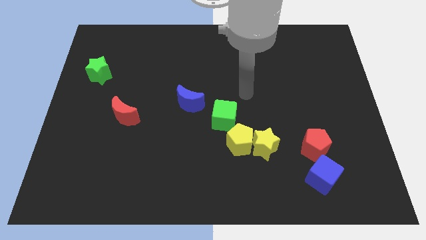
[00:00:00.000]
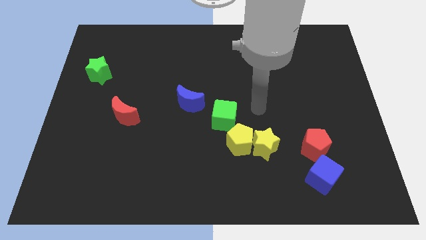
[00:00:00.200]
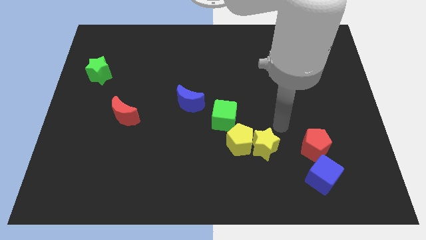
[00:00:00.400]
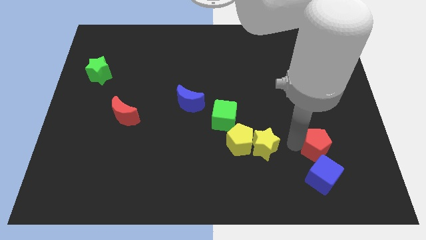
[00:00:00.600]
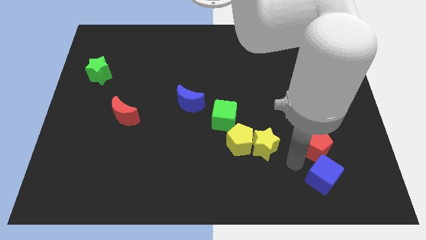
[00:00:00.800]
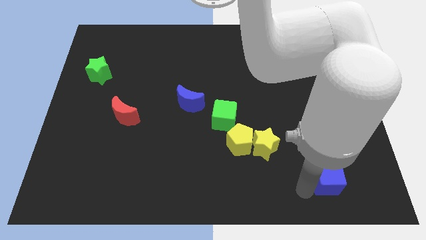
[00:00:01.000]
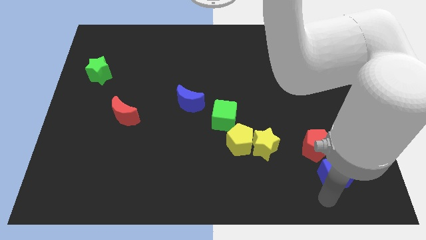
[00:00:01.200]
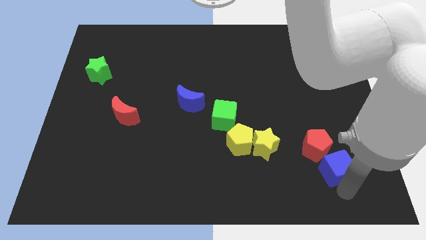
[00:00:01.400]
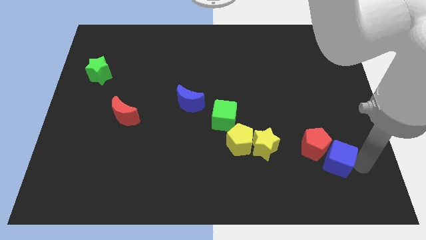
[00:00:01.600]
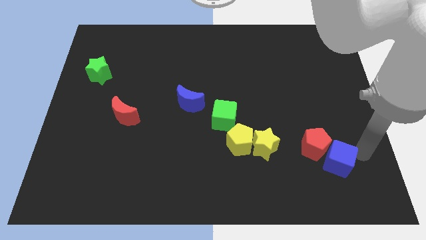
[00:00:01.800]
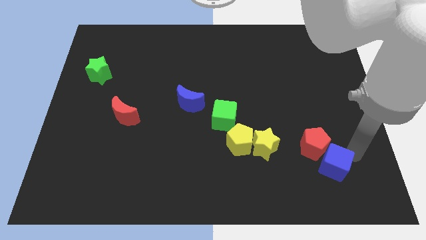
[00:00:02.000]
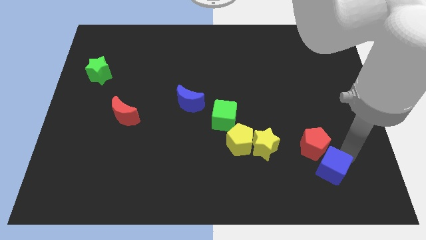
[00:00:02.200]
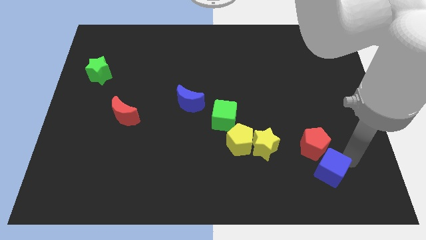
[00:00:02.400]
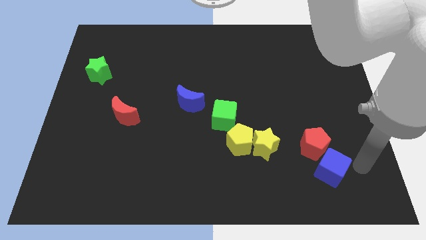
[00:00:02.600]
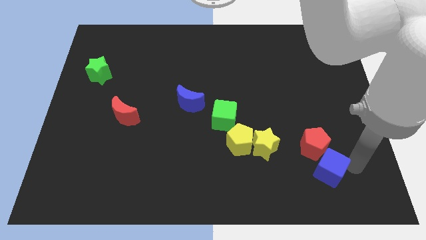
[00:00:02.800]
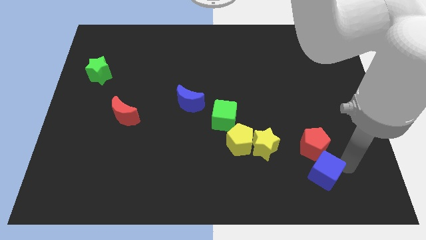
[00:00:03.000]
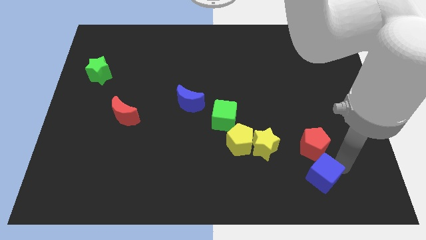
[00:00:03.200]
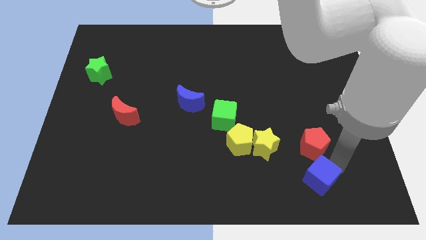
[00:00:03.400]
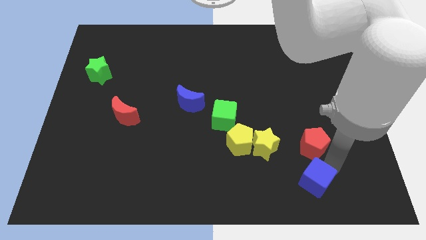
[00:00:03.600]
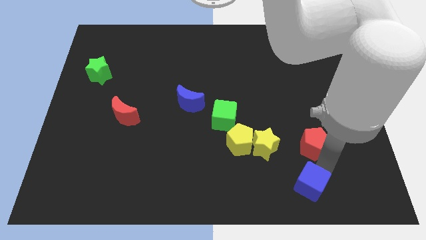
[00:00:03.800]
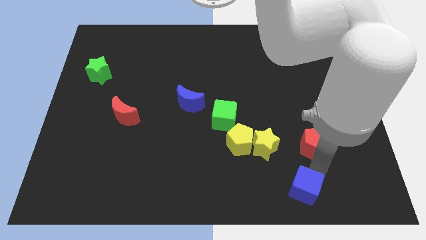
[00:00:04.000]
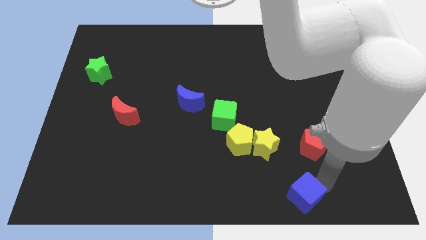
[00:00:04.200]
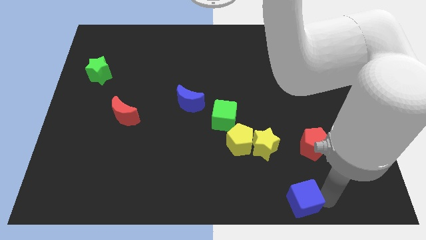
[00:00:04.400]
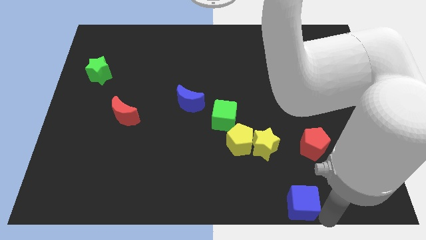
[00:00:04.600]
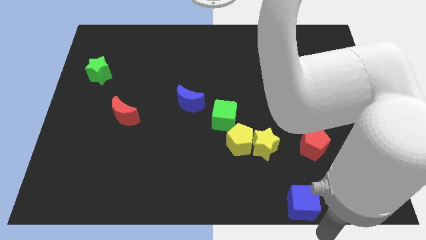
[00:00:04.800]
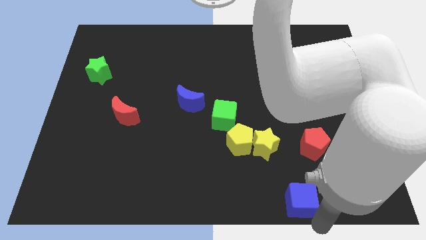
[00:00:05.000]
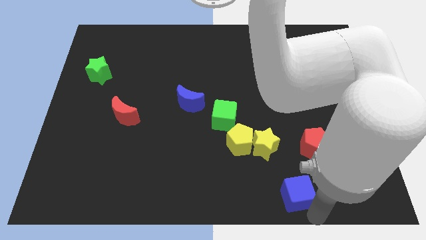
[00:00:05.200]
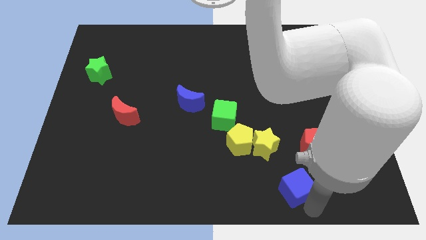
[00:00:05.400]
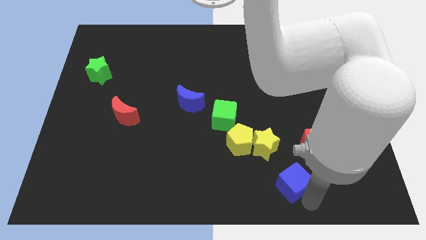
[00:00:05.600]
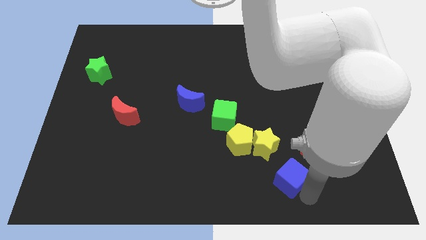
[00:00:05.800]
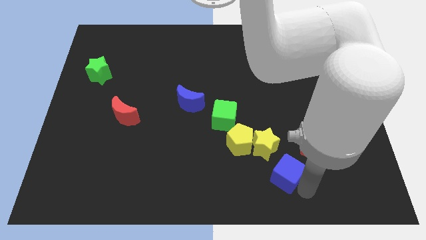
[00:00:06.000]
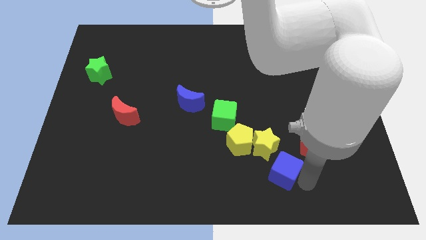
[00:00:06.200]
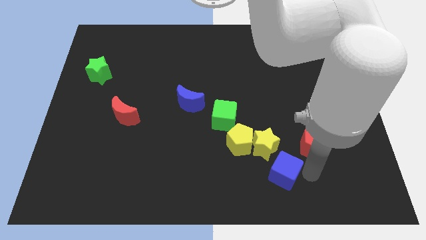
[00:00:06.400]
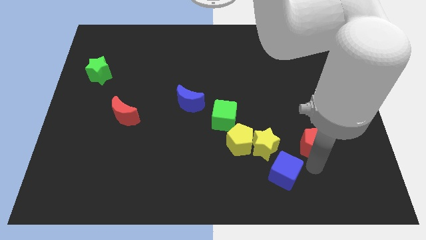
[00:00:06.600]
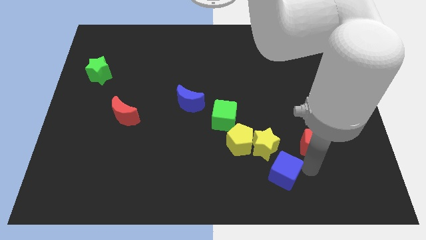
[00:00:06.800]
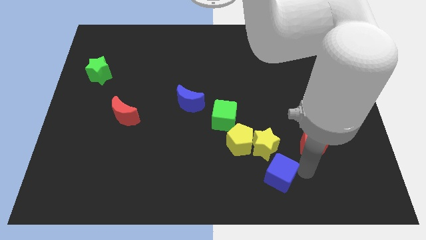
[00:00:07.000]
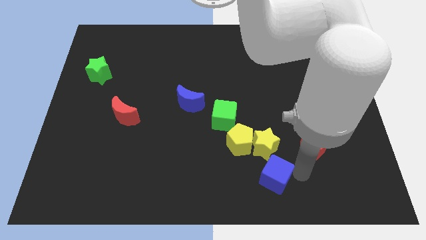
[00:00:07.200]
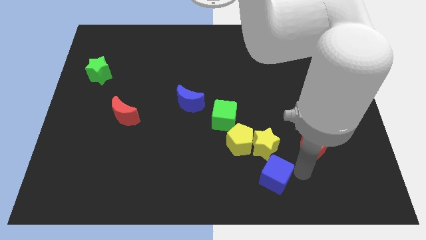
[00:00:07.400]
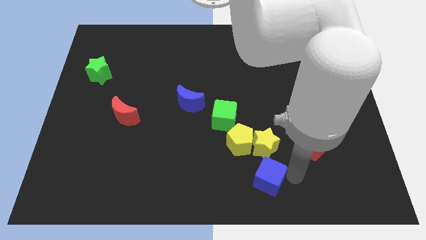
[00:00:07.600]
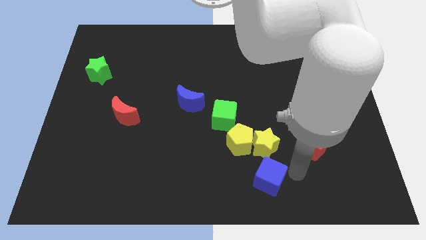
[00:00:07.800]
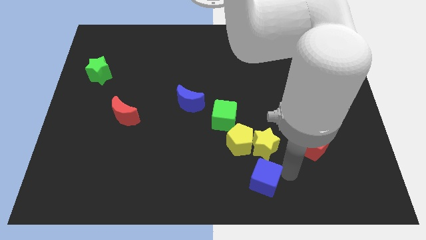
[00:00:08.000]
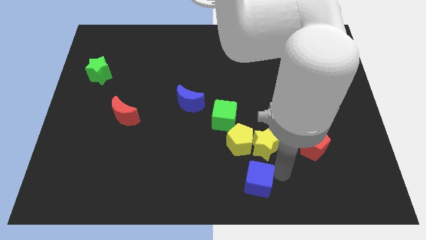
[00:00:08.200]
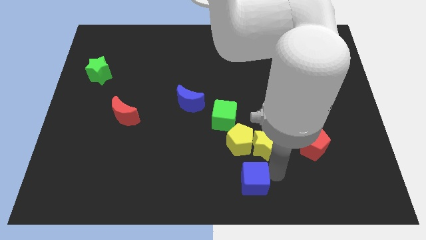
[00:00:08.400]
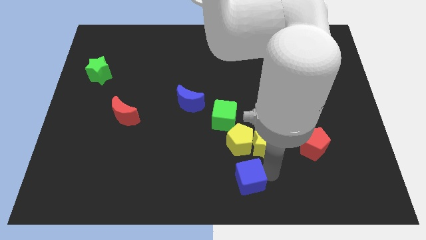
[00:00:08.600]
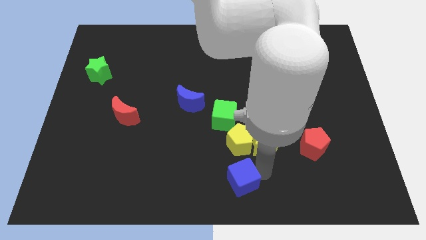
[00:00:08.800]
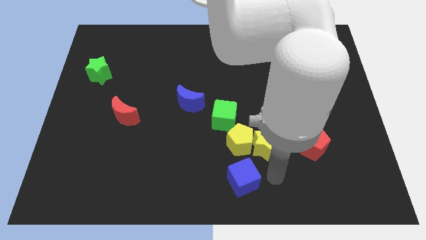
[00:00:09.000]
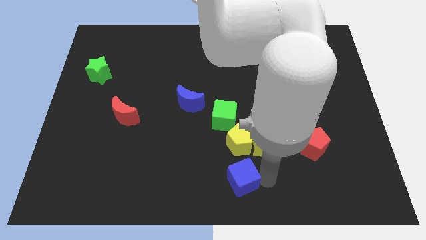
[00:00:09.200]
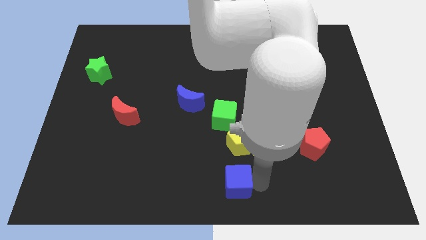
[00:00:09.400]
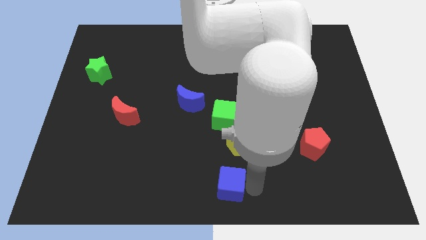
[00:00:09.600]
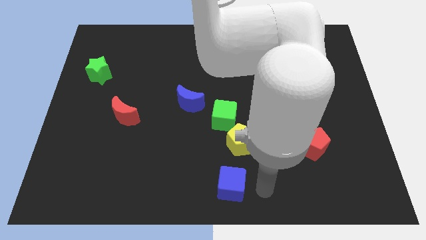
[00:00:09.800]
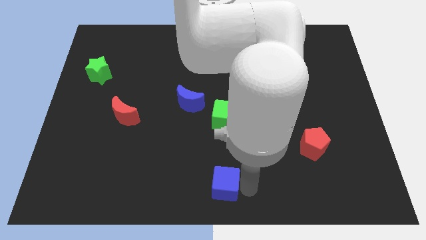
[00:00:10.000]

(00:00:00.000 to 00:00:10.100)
push the blue cube left

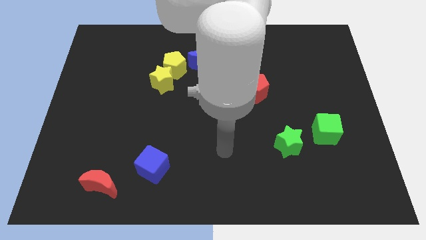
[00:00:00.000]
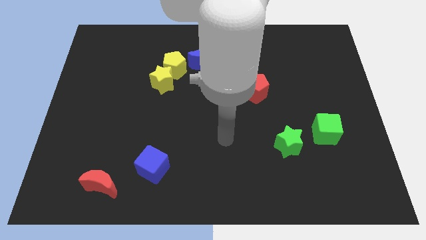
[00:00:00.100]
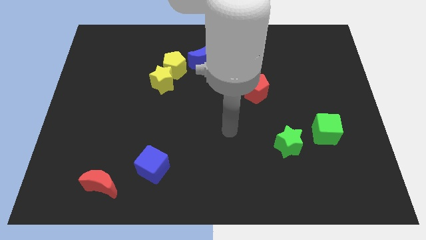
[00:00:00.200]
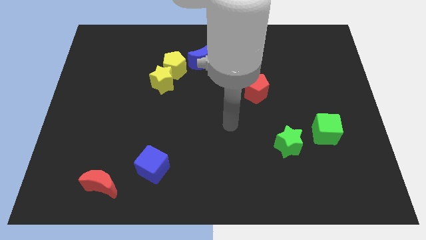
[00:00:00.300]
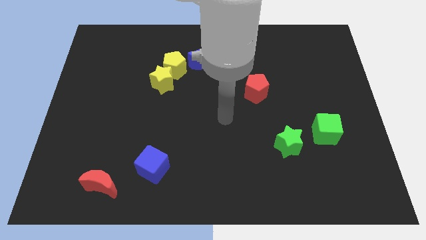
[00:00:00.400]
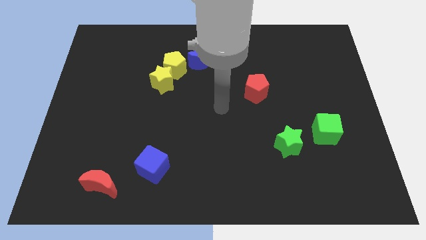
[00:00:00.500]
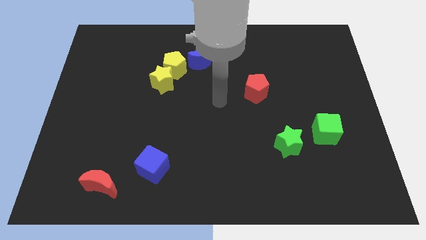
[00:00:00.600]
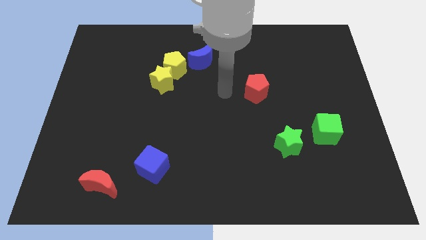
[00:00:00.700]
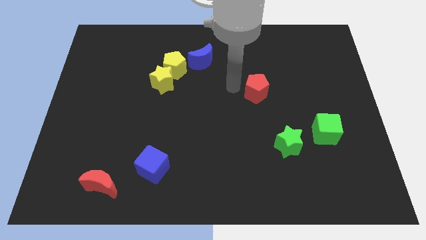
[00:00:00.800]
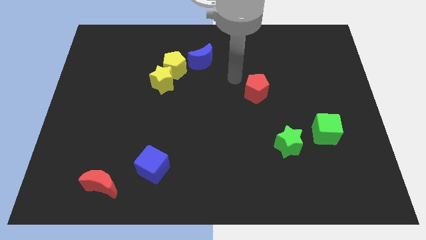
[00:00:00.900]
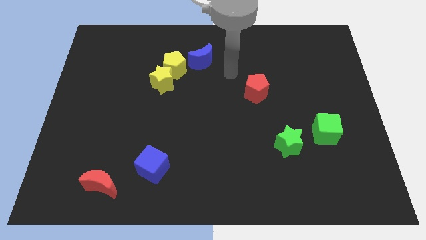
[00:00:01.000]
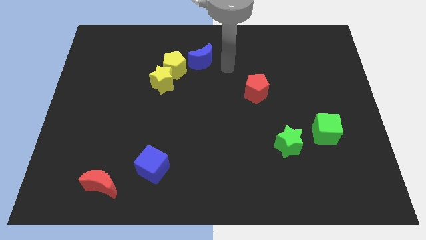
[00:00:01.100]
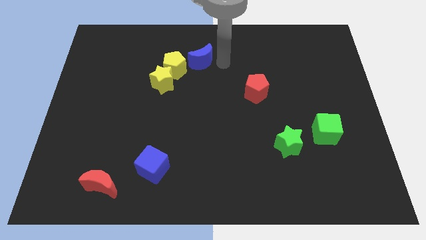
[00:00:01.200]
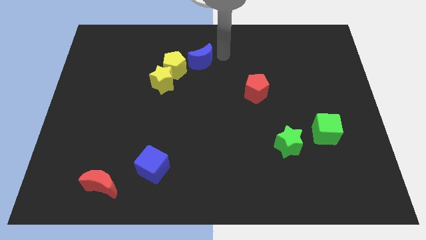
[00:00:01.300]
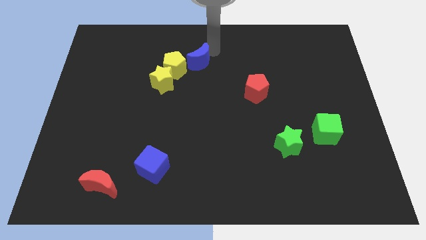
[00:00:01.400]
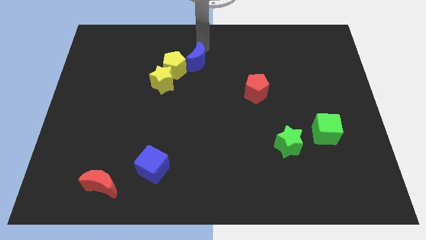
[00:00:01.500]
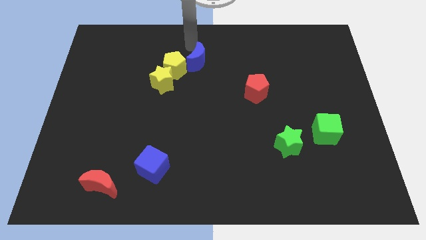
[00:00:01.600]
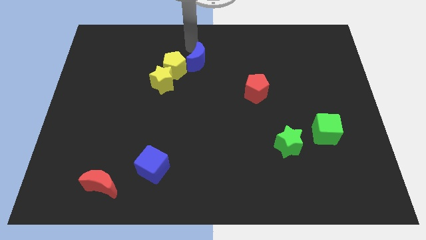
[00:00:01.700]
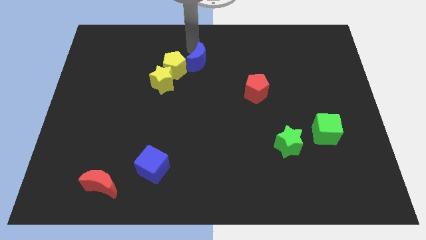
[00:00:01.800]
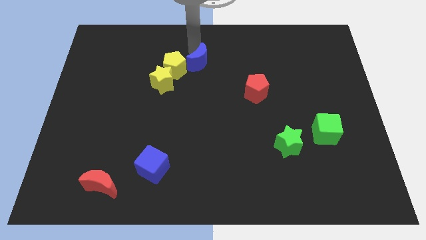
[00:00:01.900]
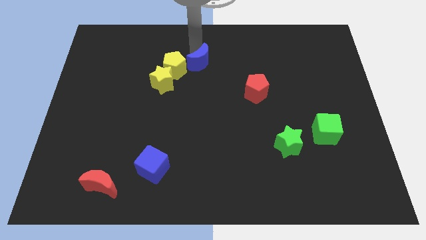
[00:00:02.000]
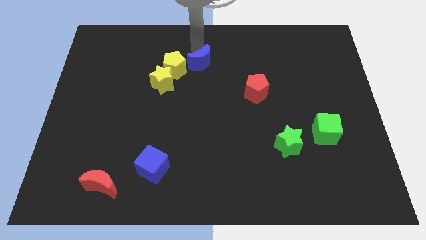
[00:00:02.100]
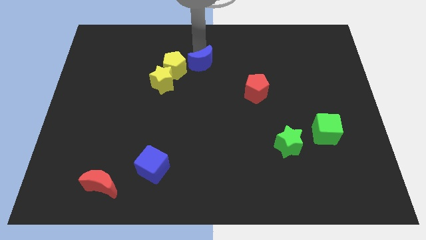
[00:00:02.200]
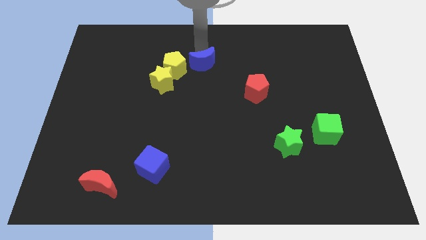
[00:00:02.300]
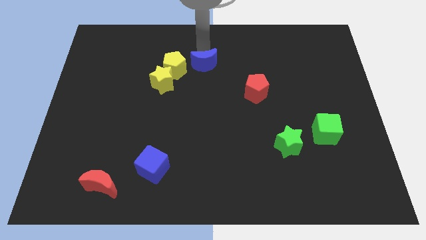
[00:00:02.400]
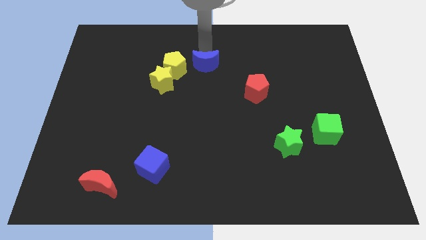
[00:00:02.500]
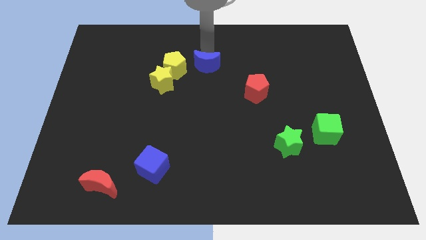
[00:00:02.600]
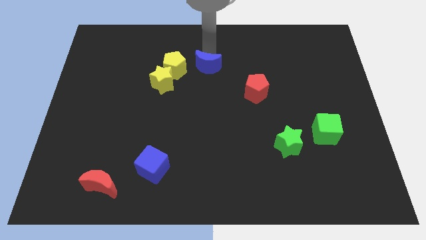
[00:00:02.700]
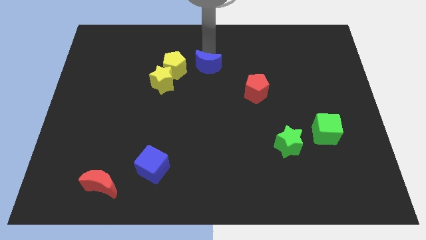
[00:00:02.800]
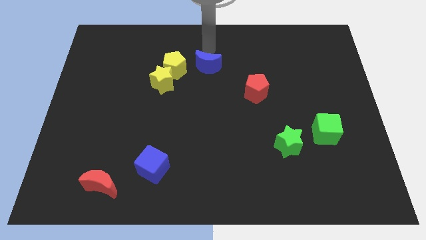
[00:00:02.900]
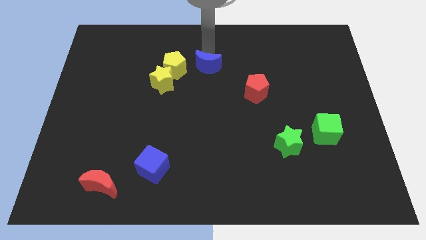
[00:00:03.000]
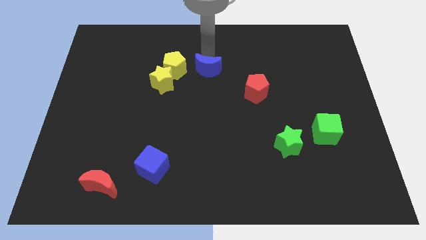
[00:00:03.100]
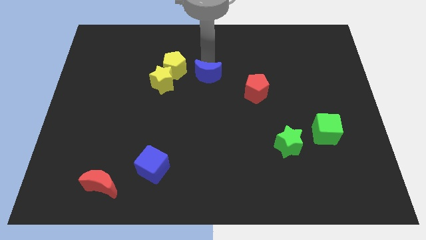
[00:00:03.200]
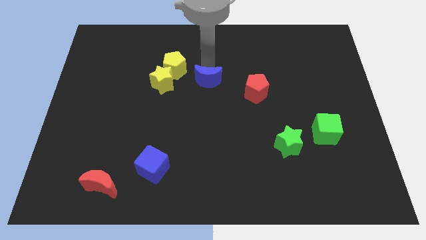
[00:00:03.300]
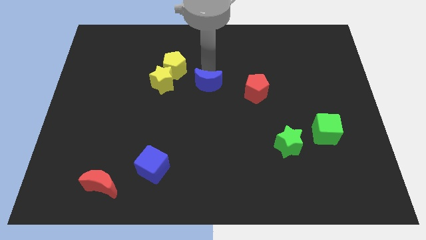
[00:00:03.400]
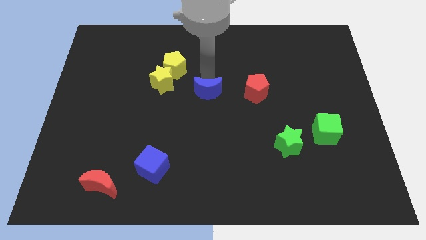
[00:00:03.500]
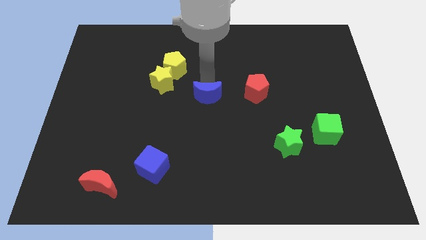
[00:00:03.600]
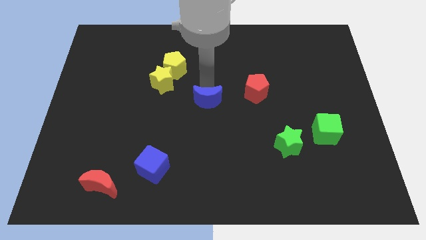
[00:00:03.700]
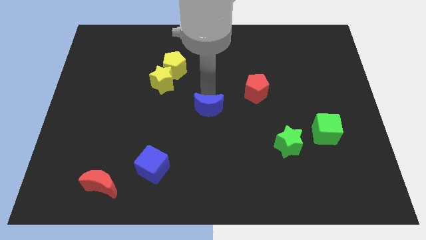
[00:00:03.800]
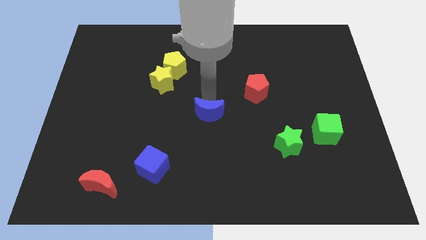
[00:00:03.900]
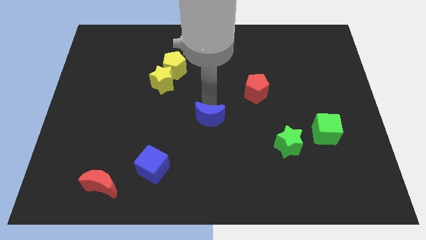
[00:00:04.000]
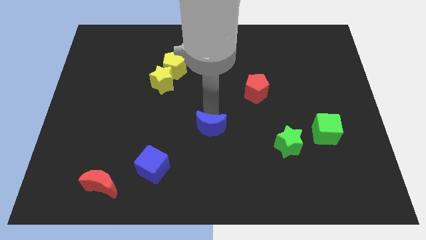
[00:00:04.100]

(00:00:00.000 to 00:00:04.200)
push the blue moon down
